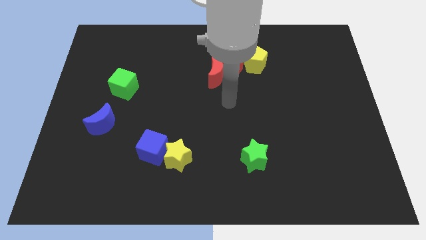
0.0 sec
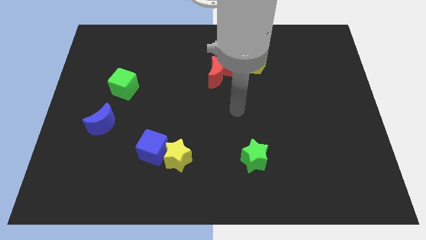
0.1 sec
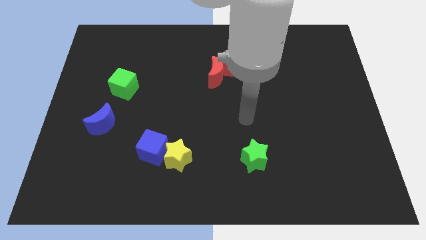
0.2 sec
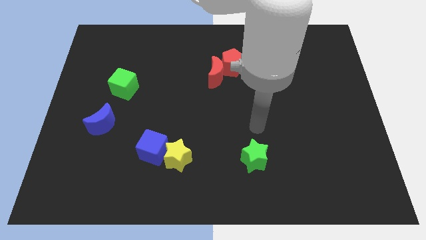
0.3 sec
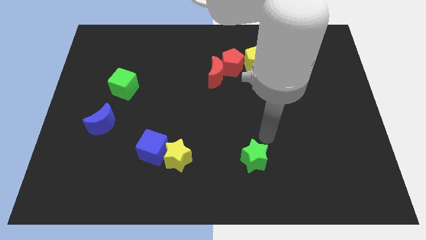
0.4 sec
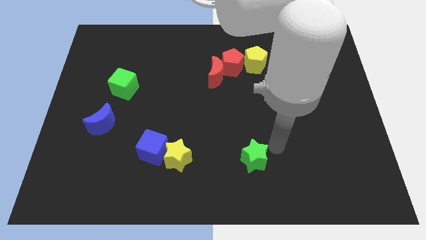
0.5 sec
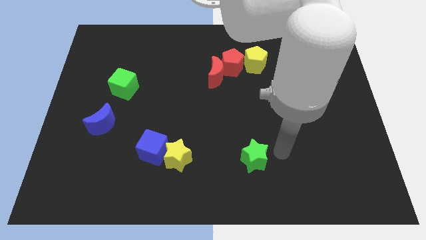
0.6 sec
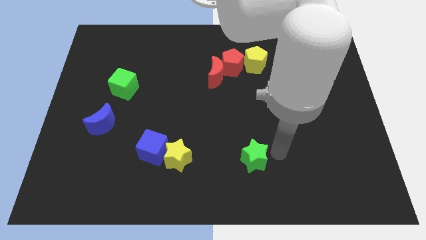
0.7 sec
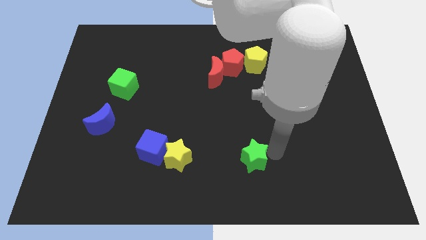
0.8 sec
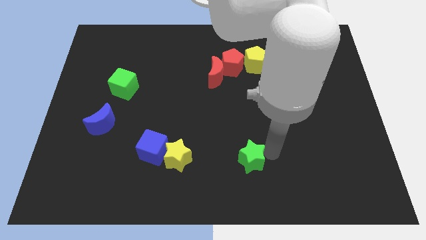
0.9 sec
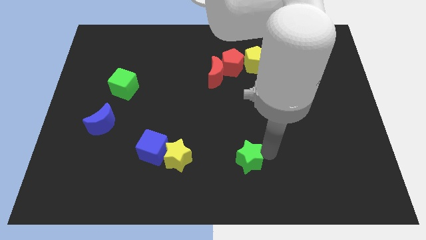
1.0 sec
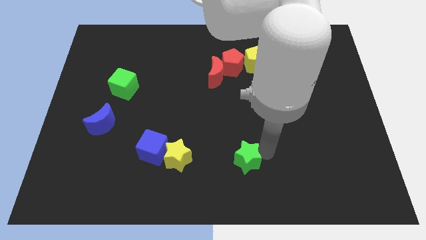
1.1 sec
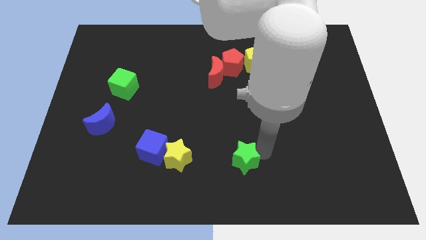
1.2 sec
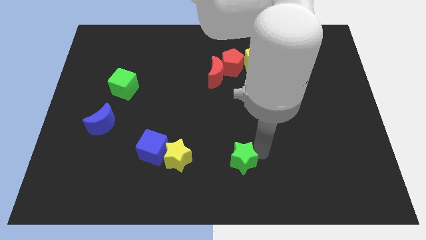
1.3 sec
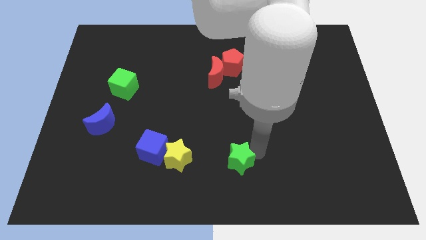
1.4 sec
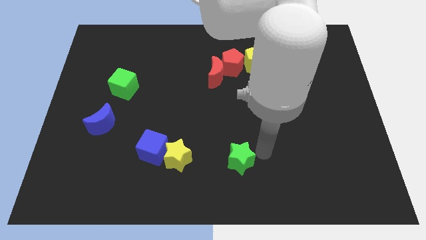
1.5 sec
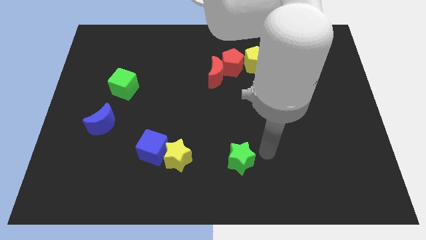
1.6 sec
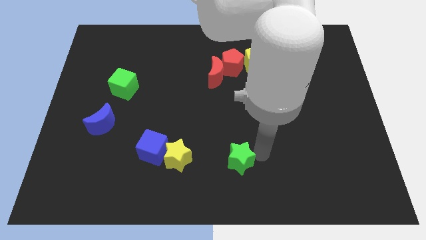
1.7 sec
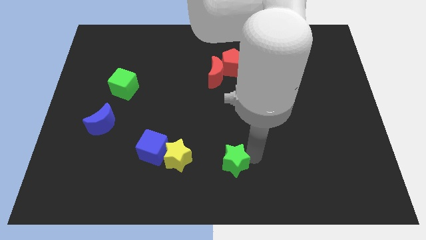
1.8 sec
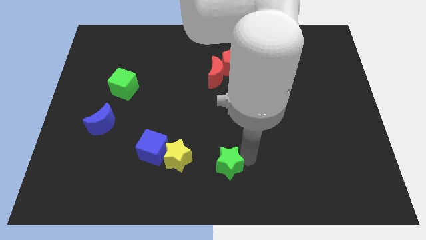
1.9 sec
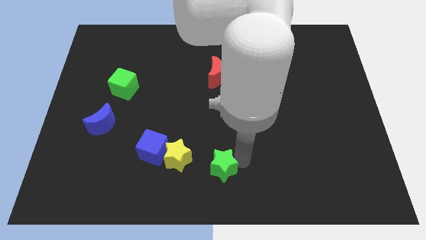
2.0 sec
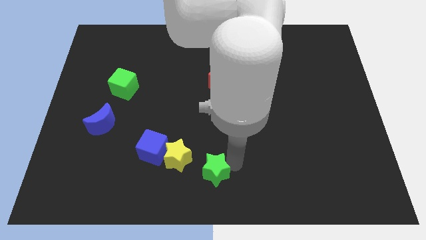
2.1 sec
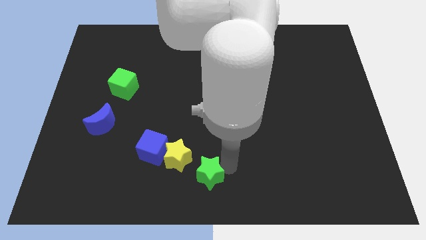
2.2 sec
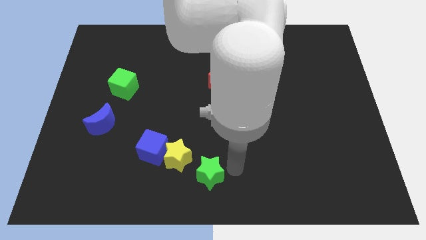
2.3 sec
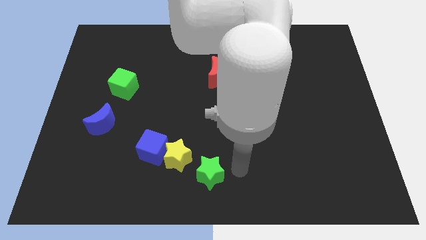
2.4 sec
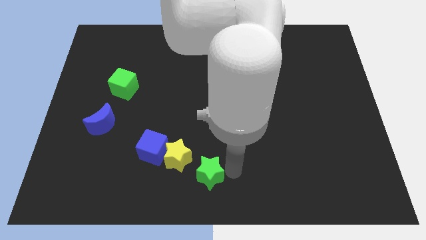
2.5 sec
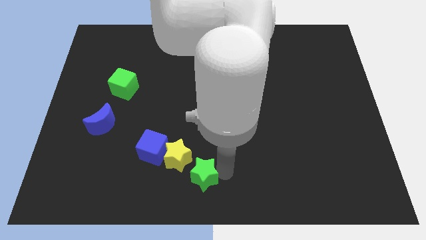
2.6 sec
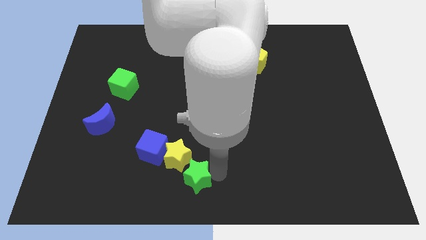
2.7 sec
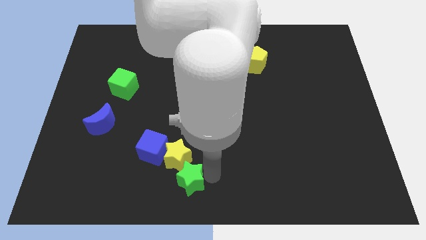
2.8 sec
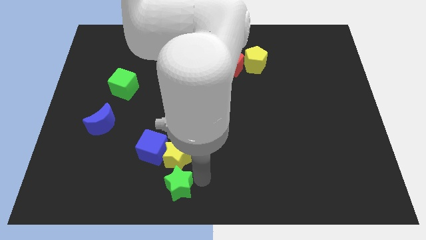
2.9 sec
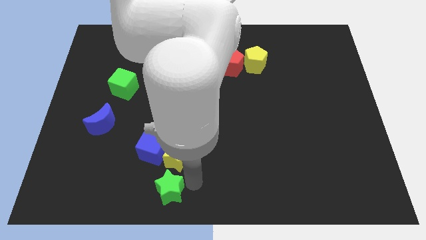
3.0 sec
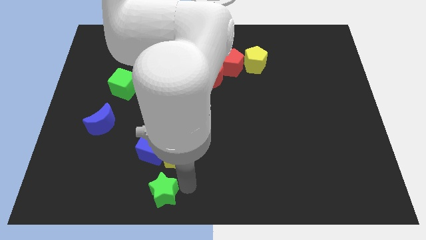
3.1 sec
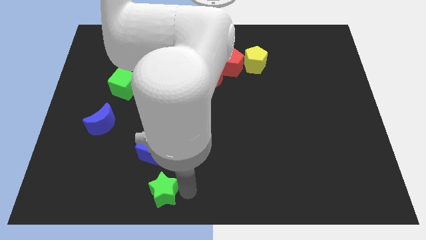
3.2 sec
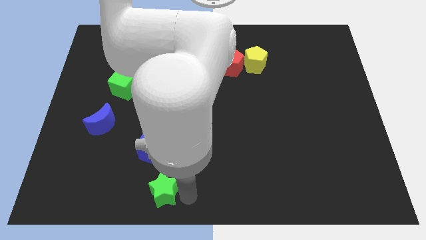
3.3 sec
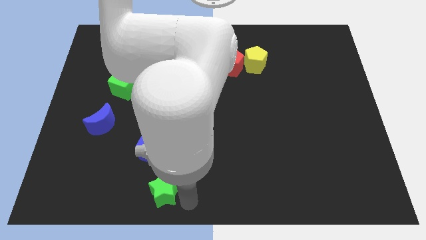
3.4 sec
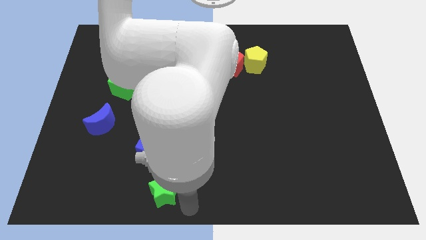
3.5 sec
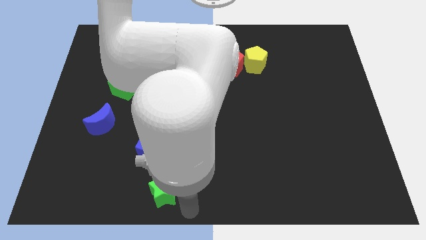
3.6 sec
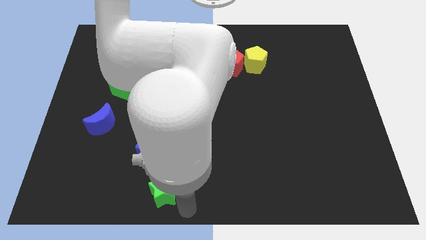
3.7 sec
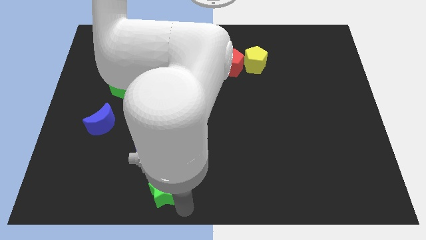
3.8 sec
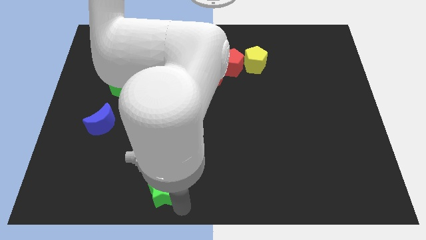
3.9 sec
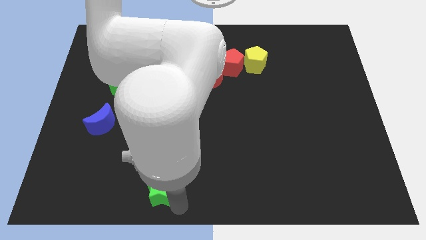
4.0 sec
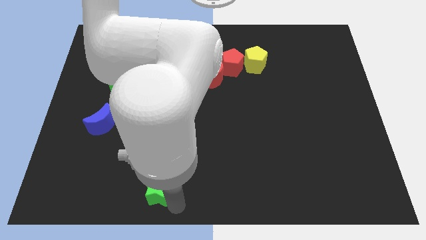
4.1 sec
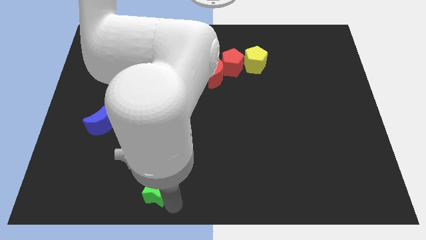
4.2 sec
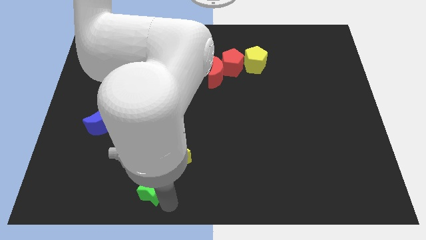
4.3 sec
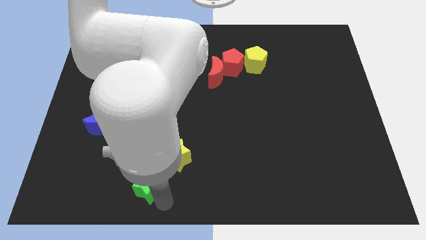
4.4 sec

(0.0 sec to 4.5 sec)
move the green star to the left

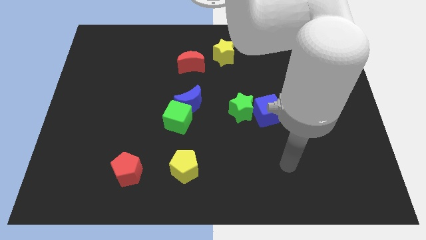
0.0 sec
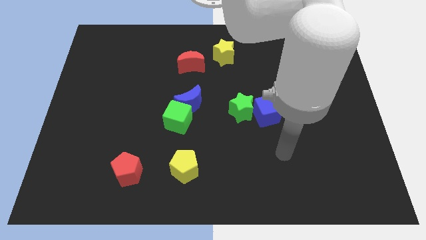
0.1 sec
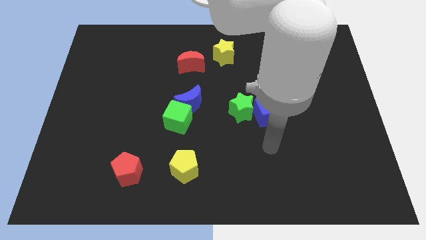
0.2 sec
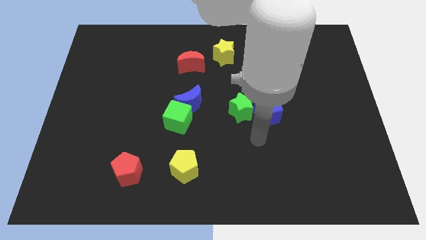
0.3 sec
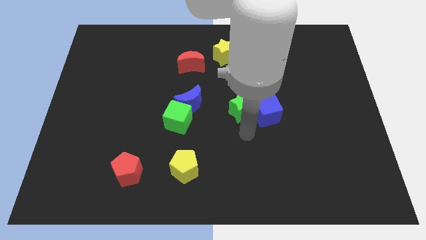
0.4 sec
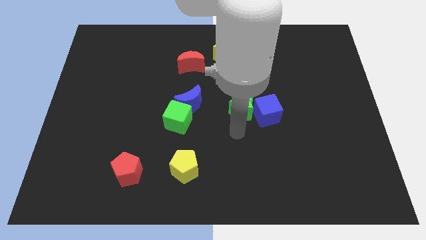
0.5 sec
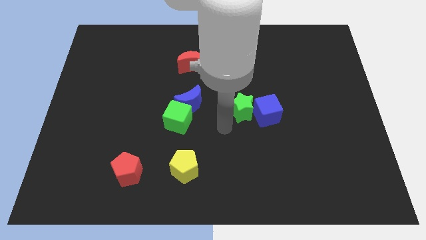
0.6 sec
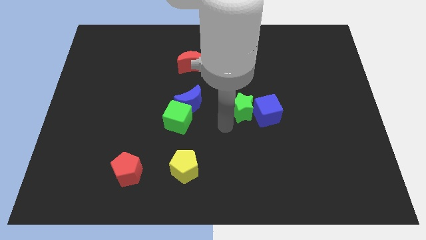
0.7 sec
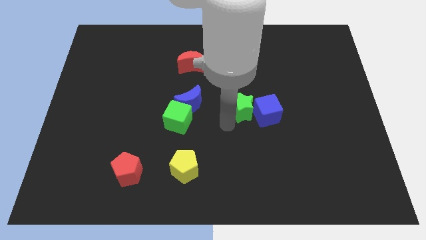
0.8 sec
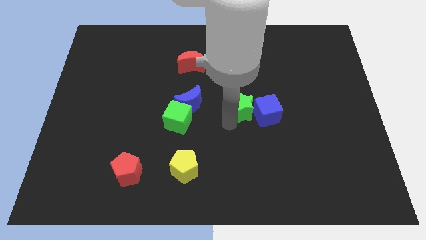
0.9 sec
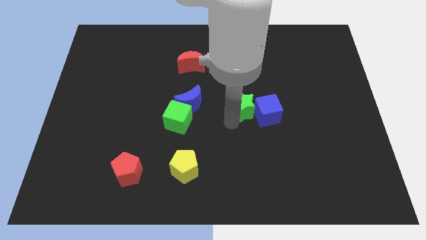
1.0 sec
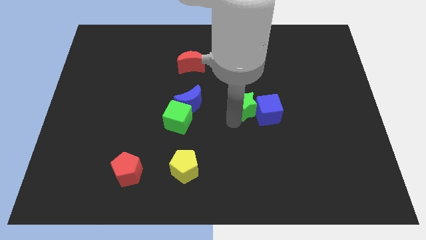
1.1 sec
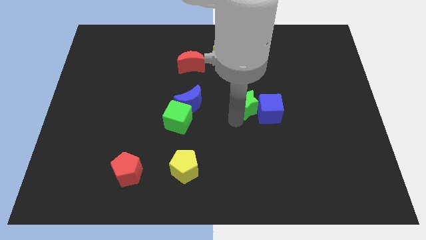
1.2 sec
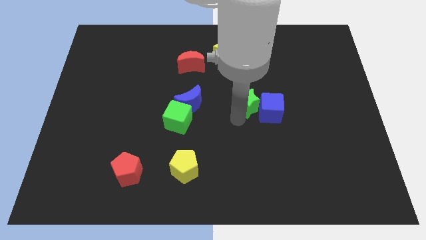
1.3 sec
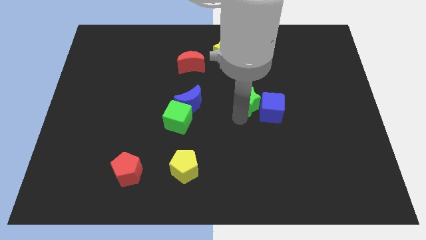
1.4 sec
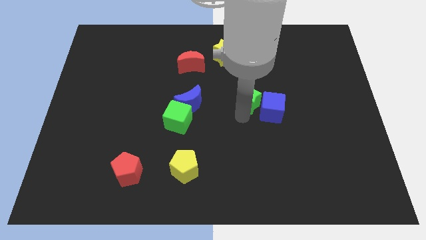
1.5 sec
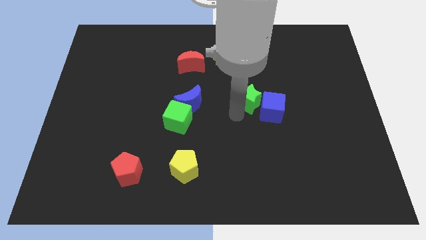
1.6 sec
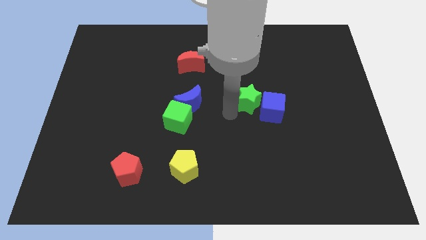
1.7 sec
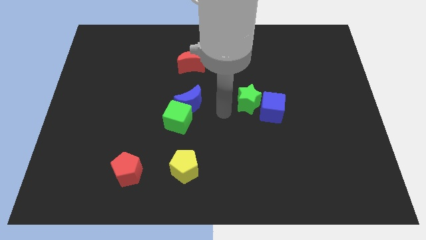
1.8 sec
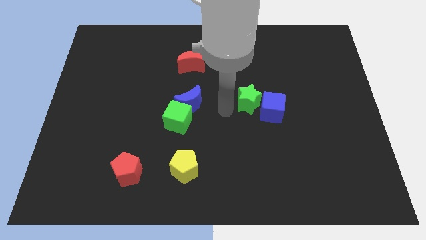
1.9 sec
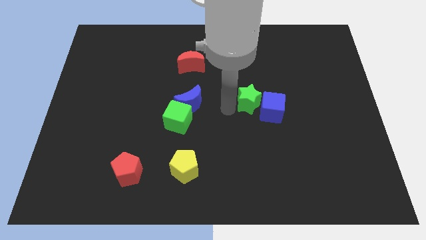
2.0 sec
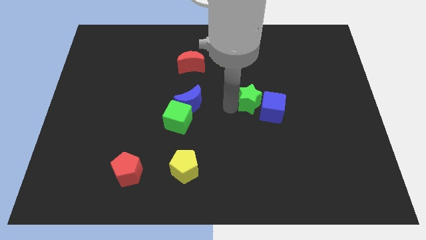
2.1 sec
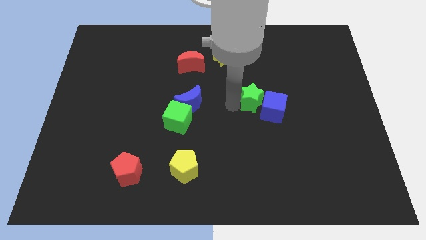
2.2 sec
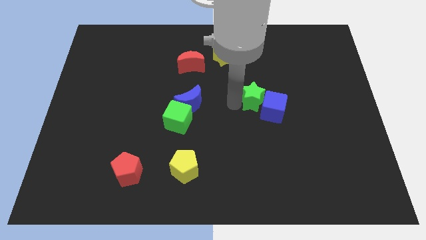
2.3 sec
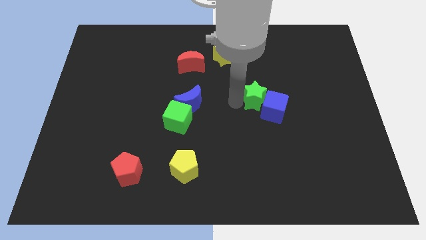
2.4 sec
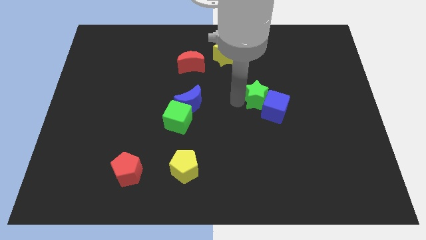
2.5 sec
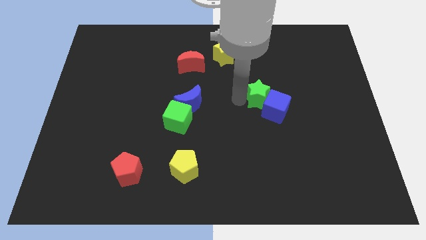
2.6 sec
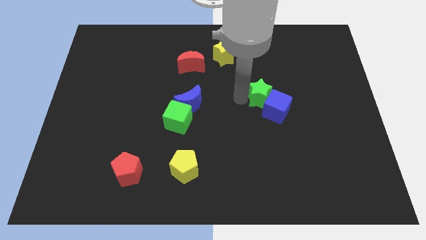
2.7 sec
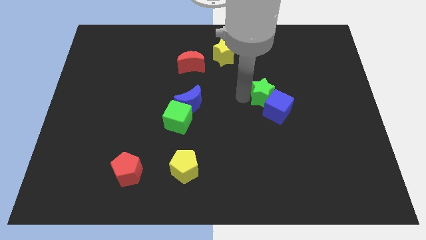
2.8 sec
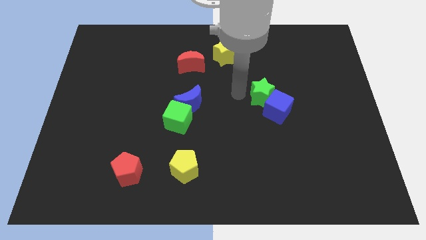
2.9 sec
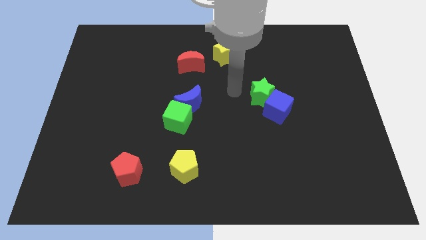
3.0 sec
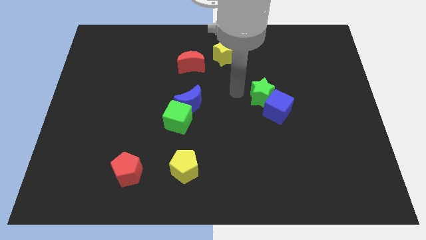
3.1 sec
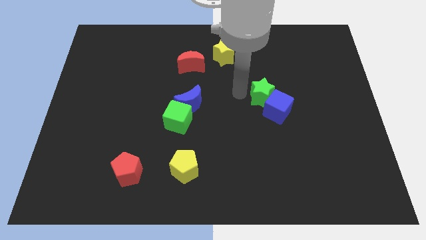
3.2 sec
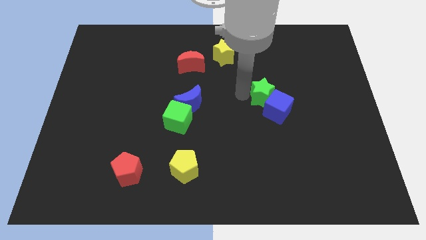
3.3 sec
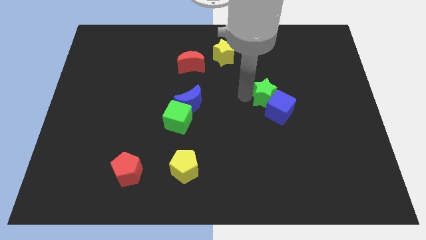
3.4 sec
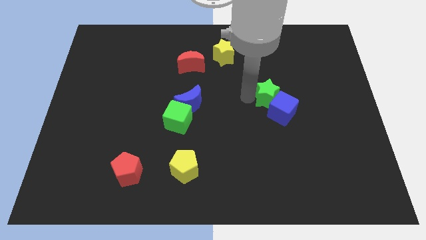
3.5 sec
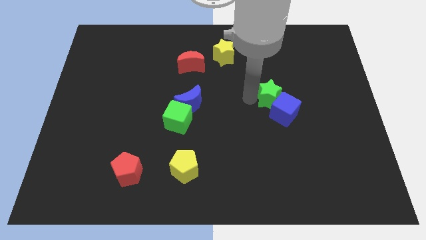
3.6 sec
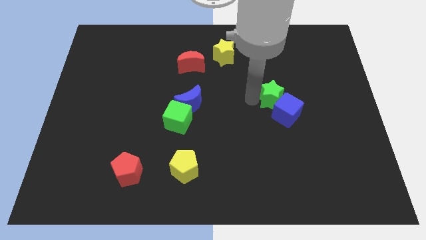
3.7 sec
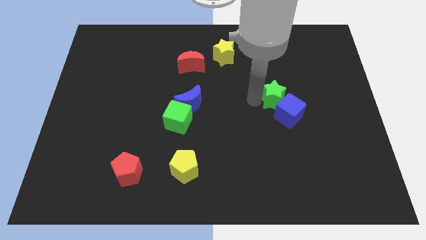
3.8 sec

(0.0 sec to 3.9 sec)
move the green star a little to the right
